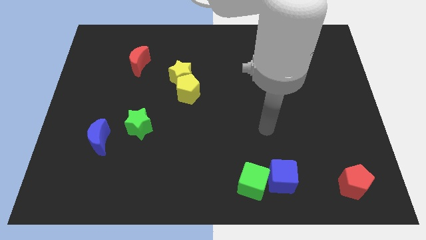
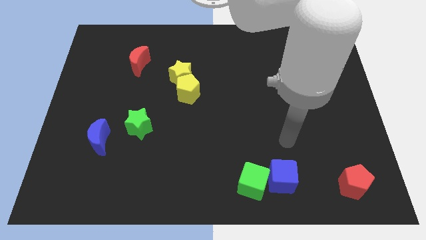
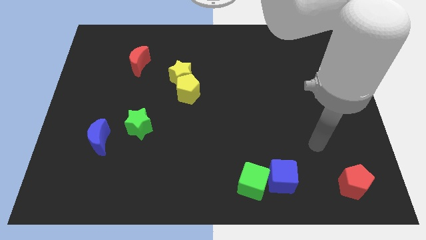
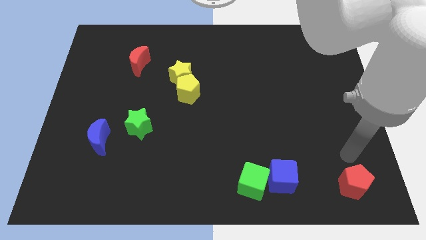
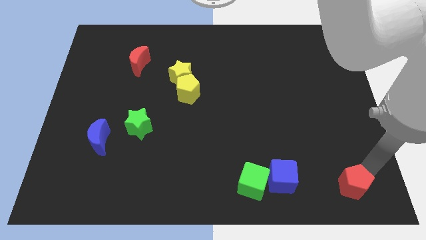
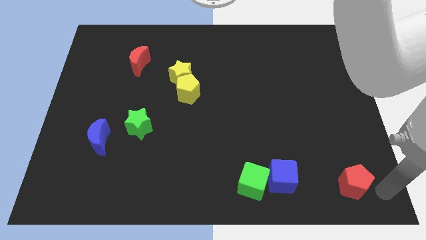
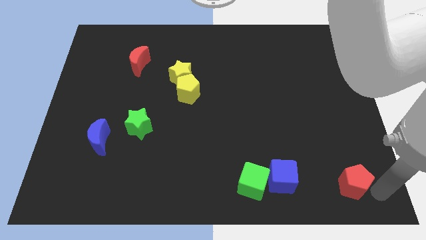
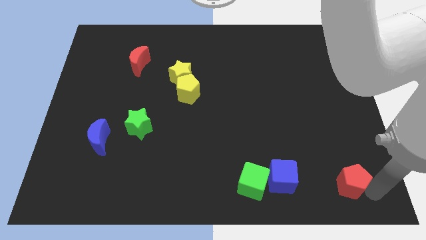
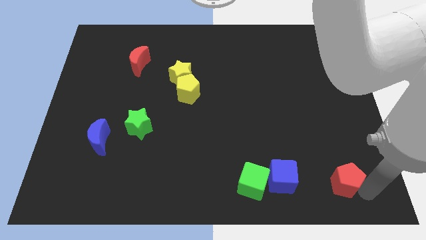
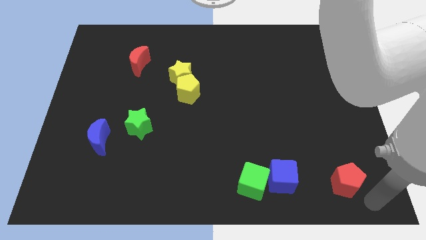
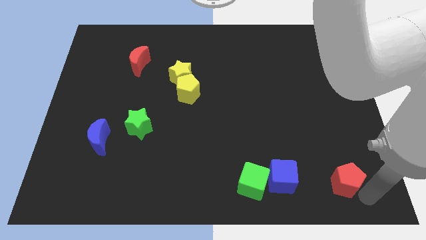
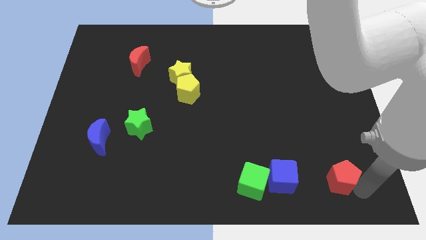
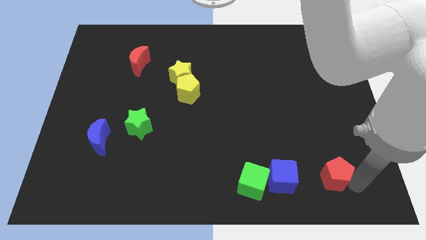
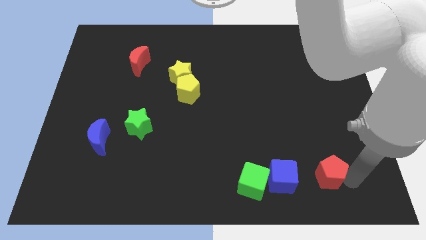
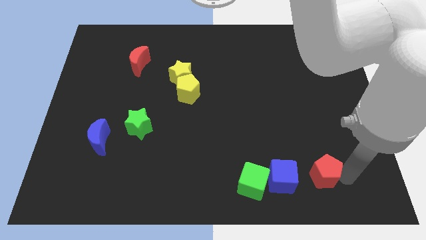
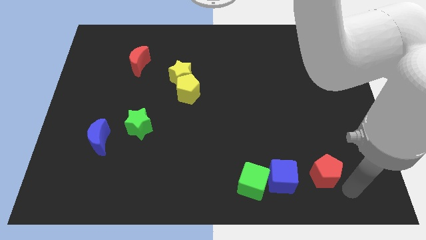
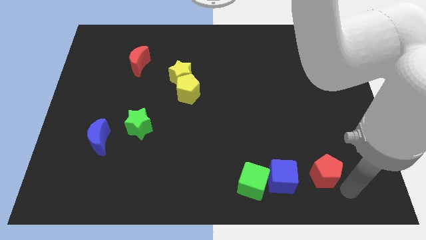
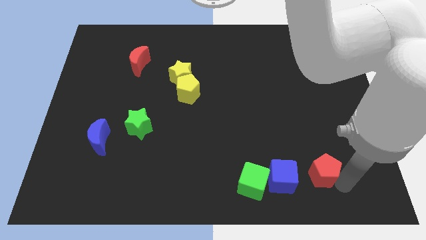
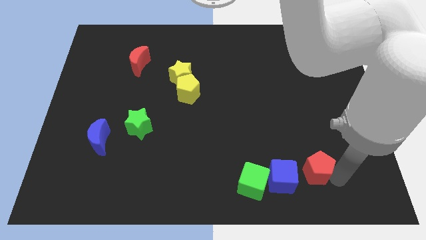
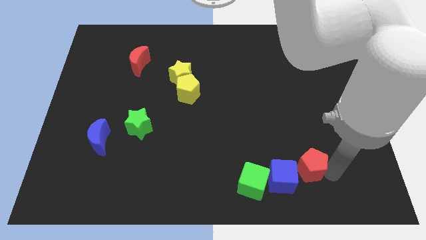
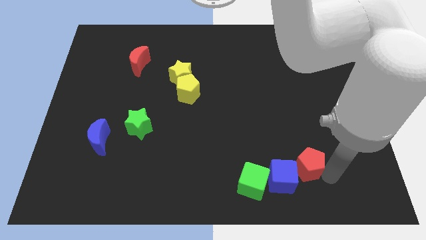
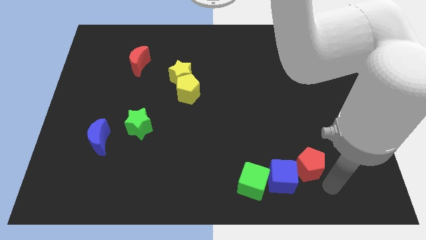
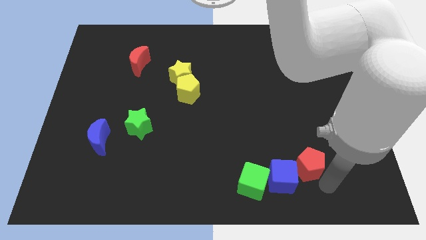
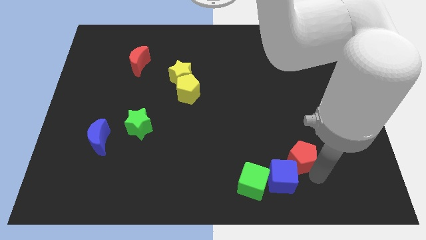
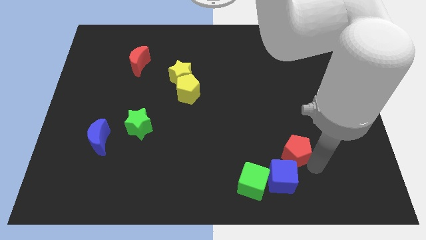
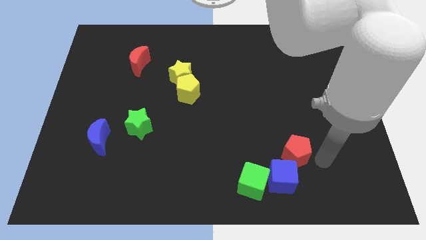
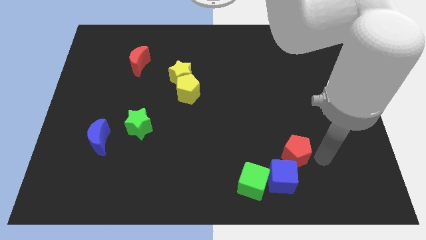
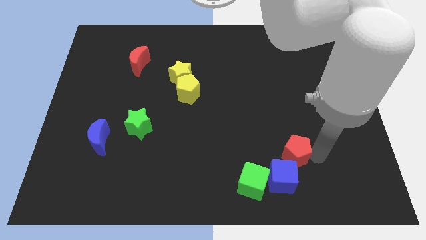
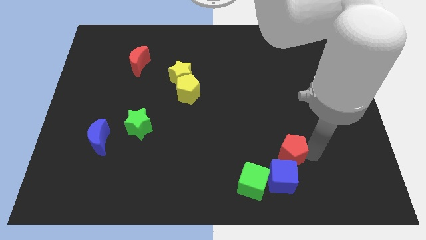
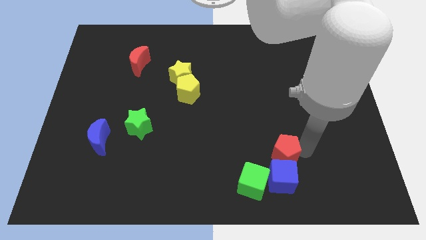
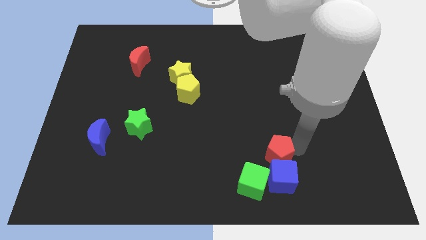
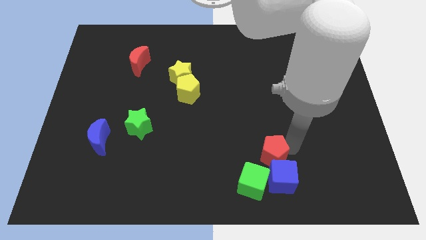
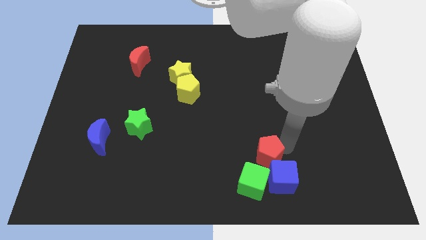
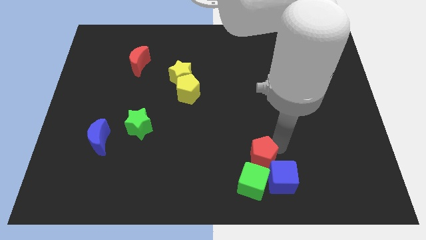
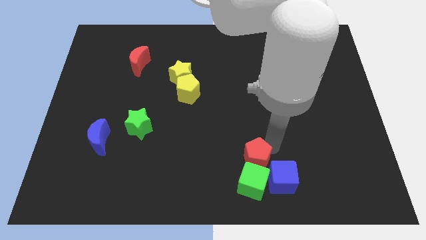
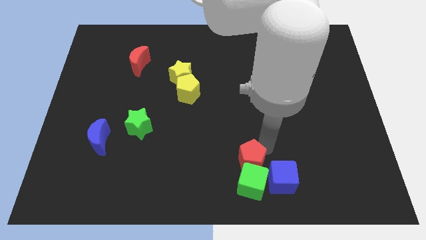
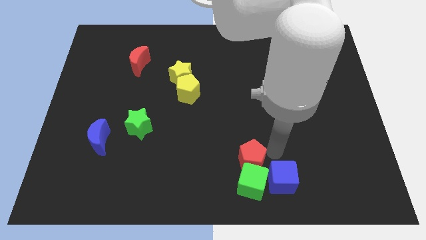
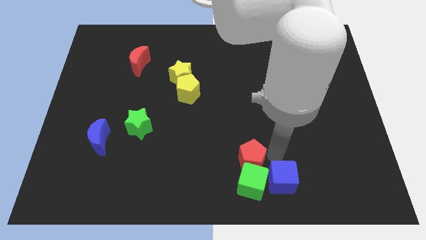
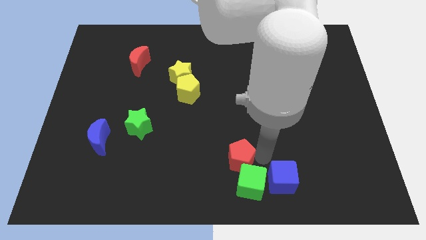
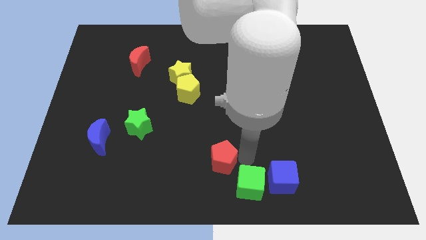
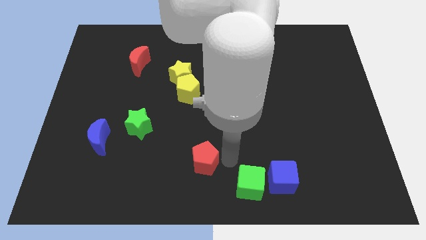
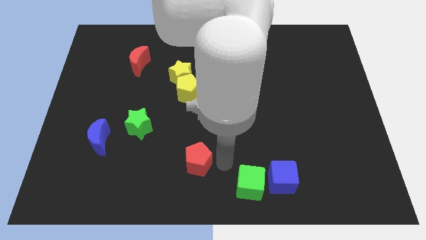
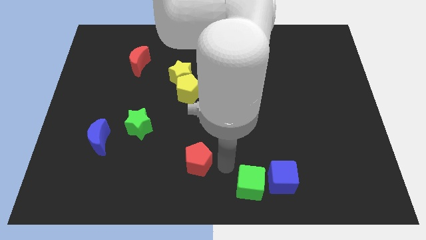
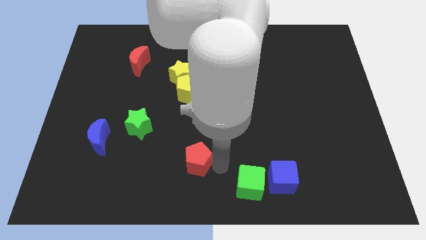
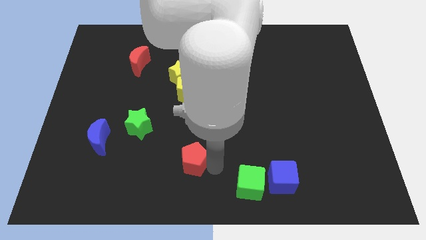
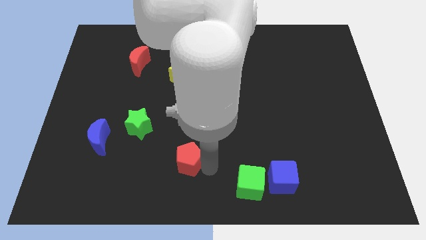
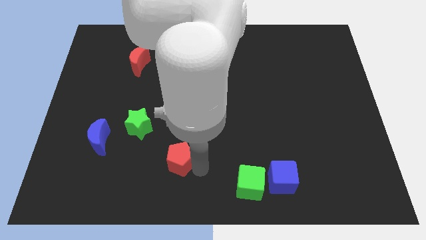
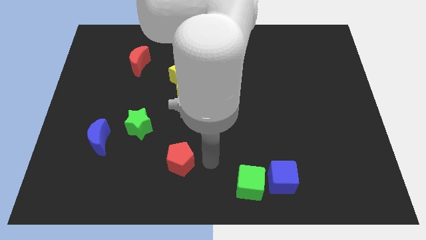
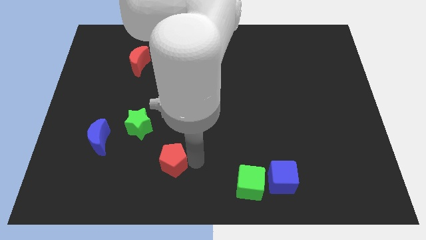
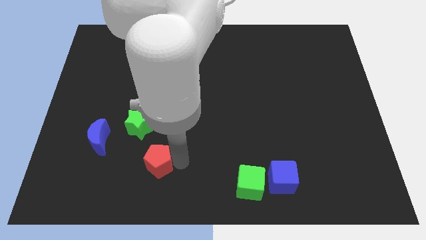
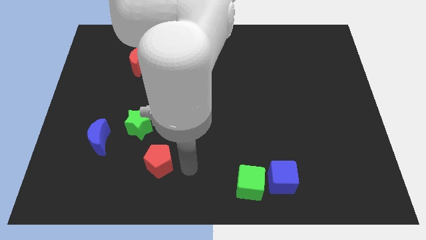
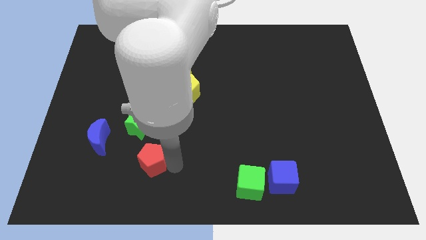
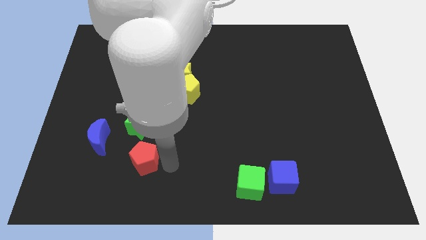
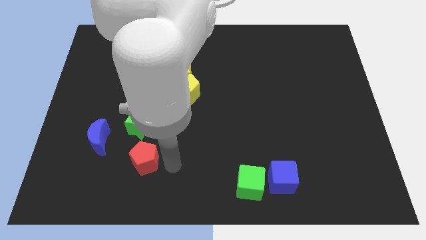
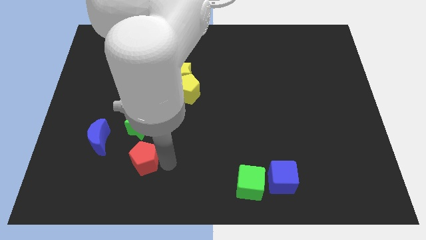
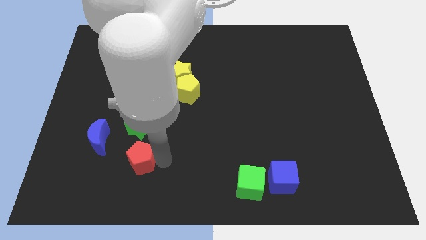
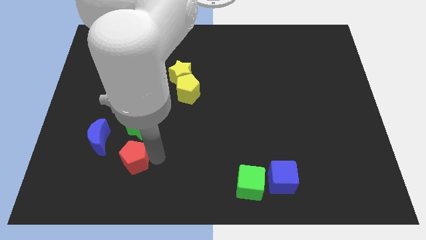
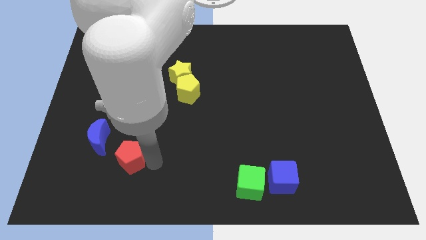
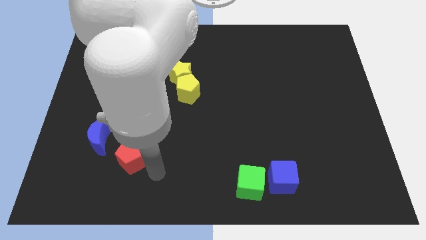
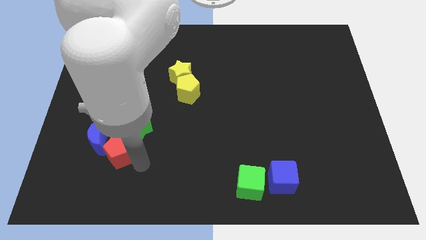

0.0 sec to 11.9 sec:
push the red pentagon to the blue moon

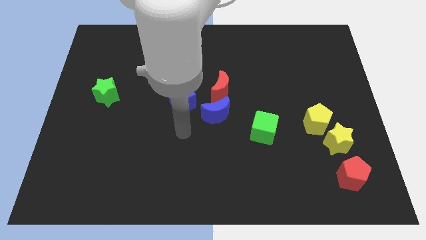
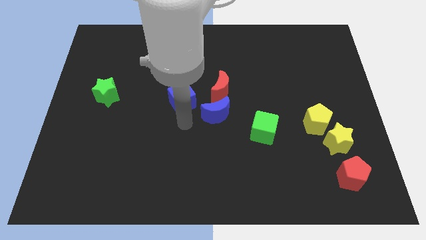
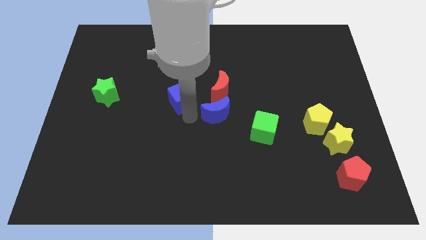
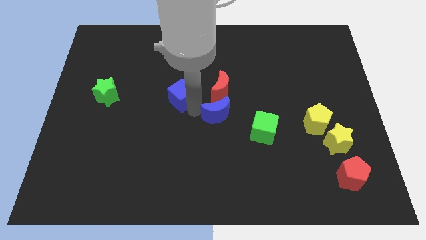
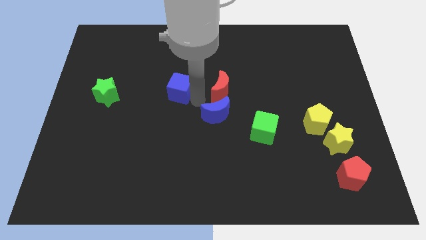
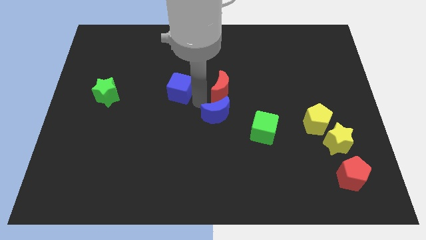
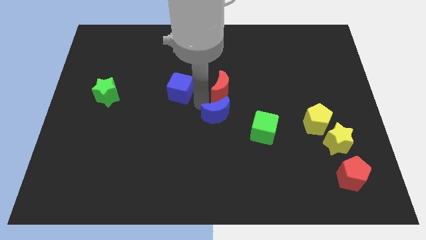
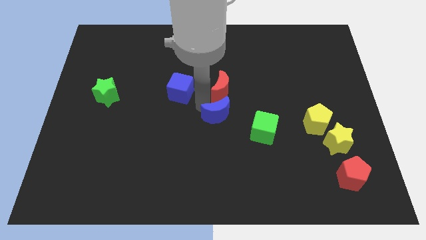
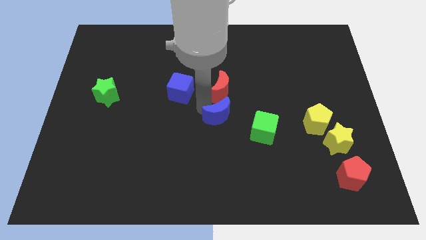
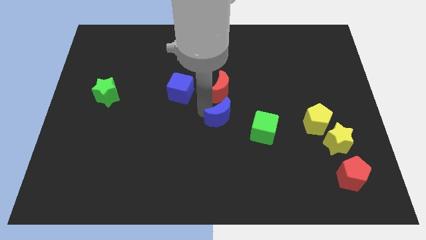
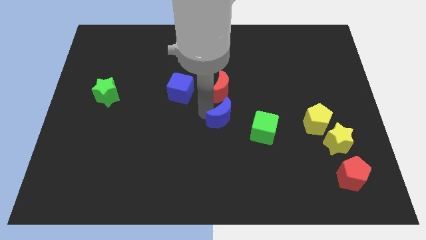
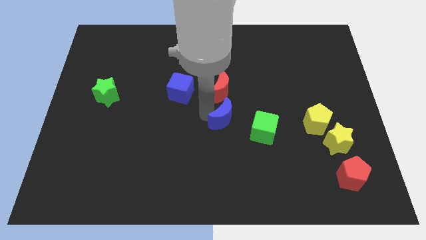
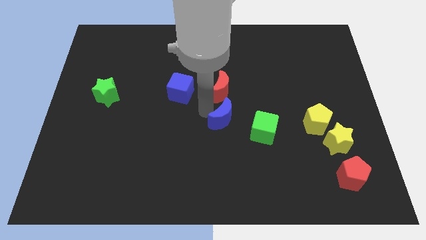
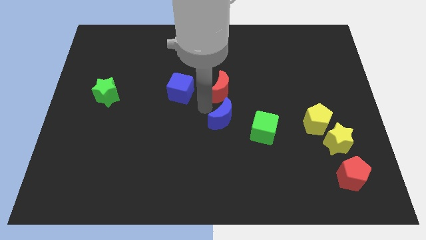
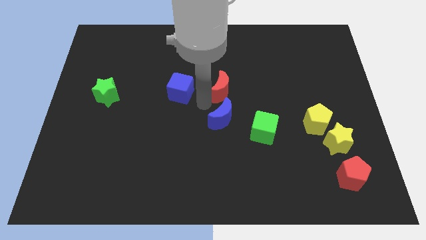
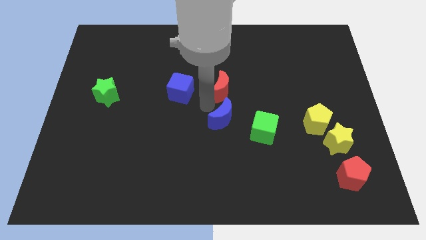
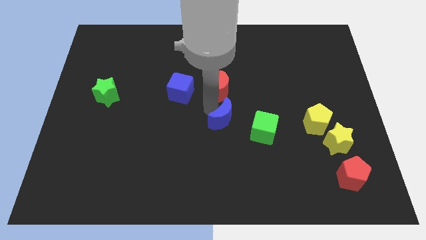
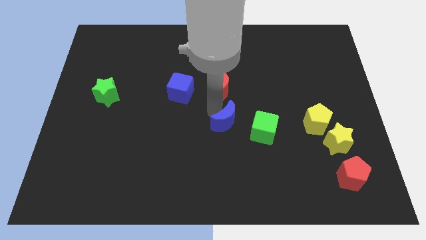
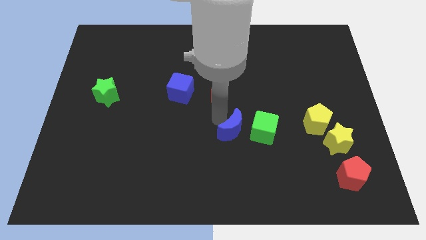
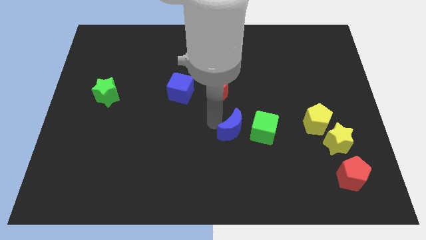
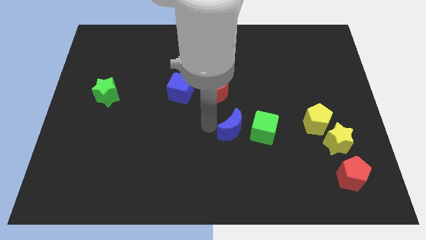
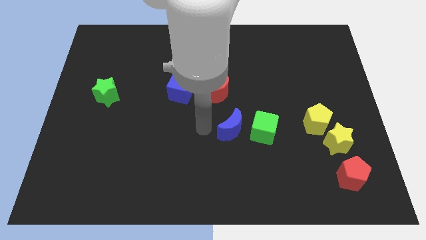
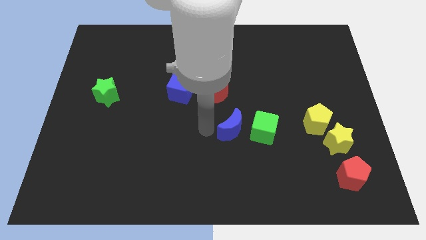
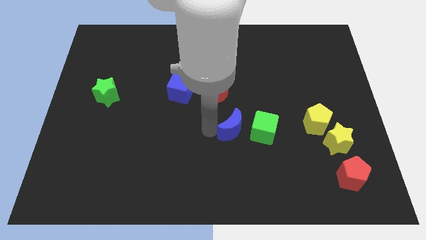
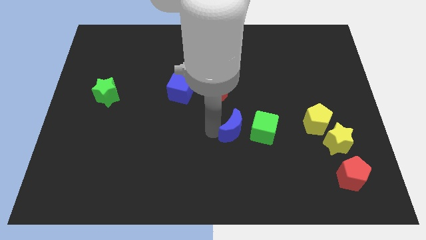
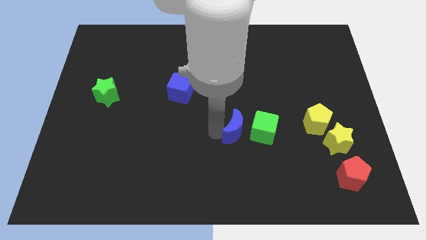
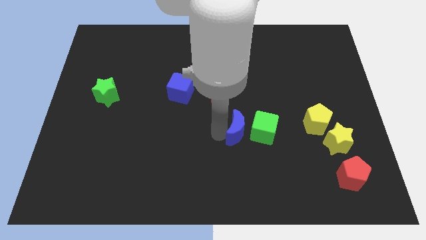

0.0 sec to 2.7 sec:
move the blue moon to the green cube
